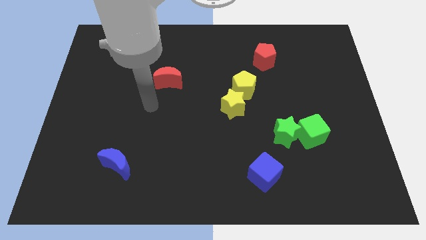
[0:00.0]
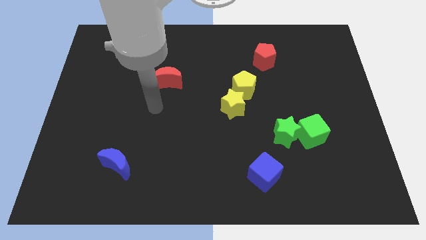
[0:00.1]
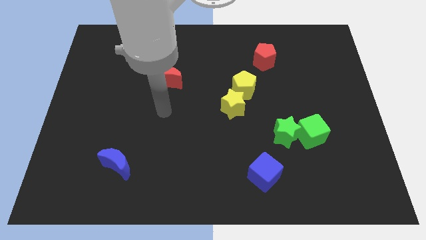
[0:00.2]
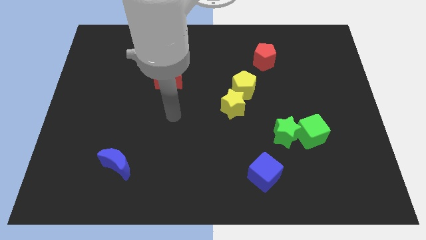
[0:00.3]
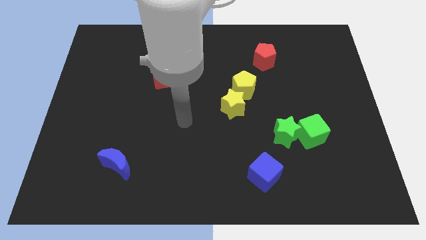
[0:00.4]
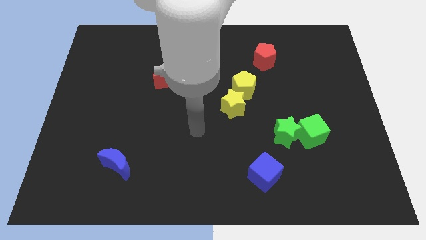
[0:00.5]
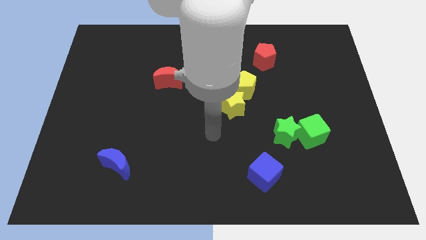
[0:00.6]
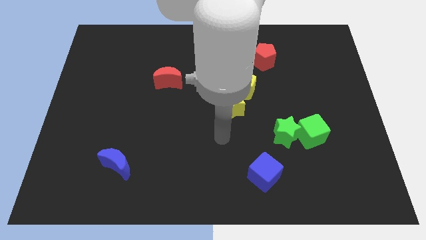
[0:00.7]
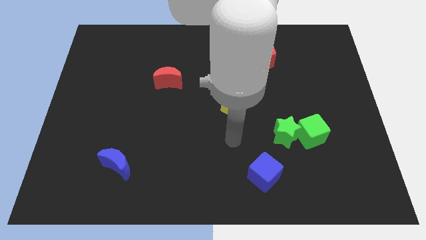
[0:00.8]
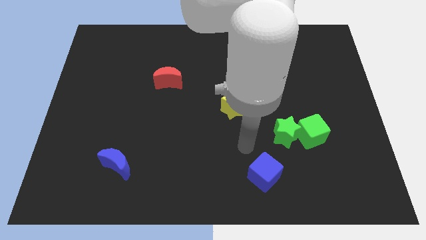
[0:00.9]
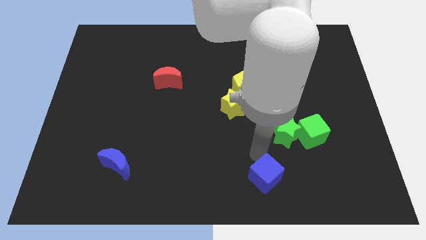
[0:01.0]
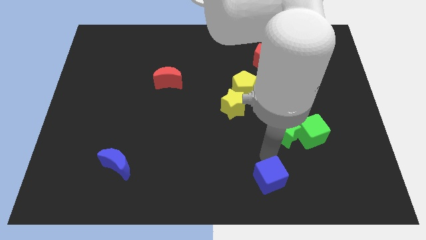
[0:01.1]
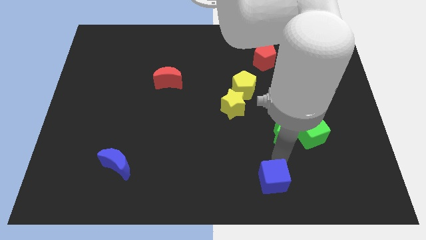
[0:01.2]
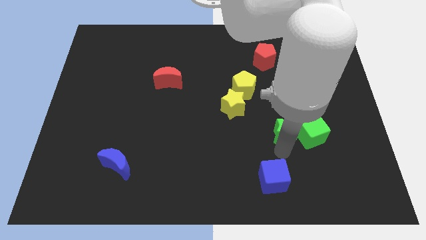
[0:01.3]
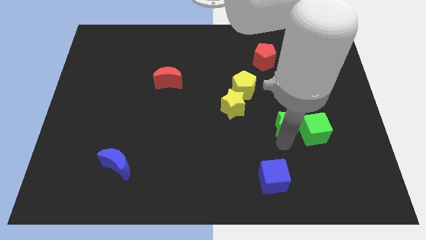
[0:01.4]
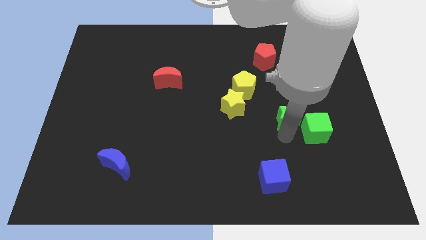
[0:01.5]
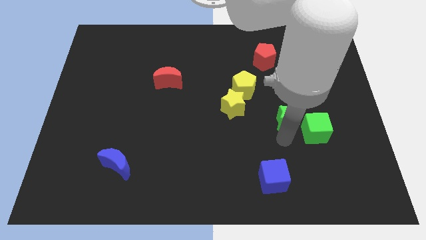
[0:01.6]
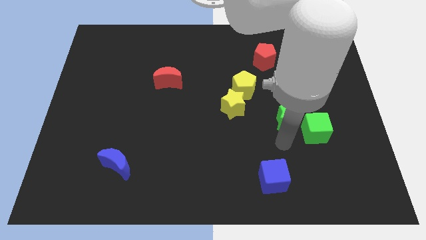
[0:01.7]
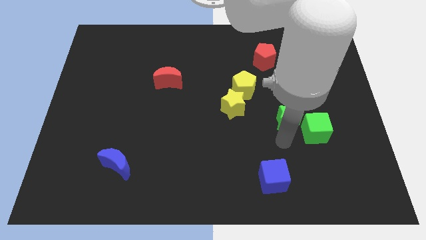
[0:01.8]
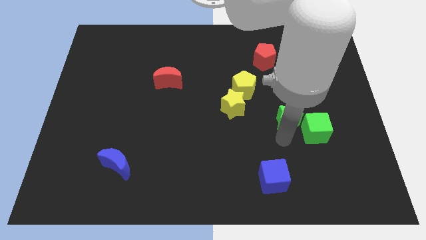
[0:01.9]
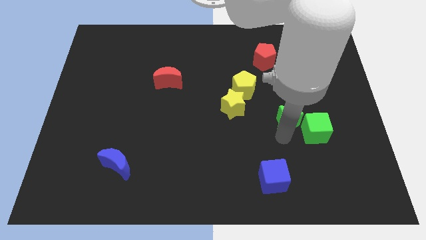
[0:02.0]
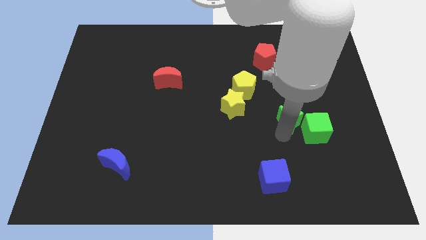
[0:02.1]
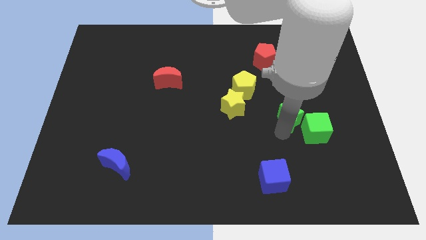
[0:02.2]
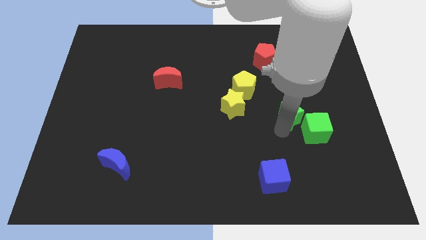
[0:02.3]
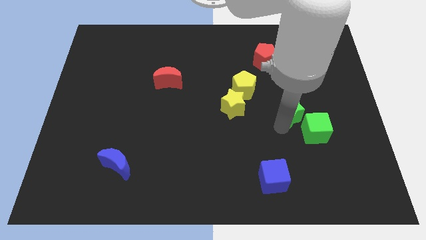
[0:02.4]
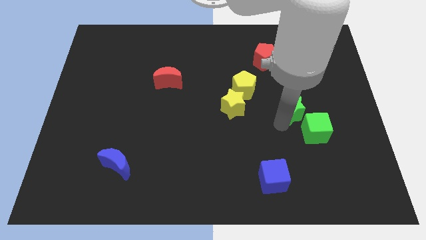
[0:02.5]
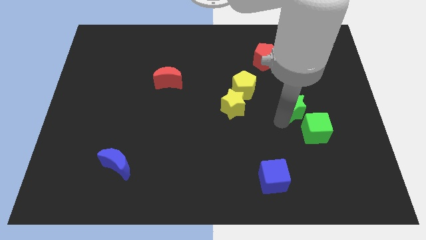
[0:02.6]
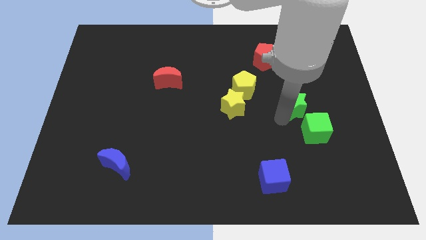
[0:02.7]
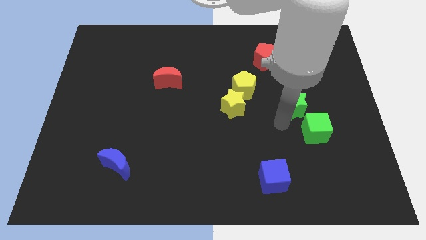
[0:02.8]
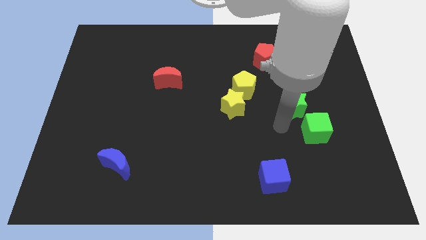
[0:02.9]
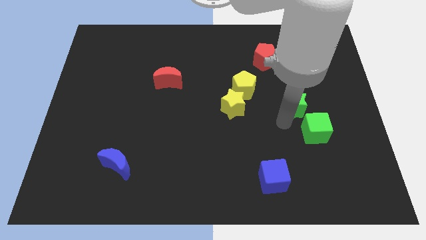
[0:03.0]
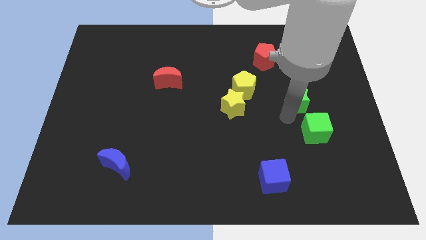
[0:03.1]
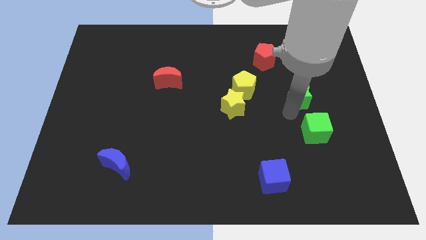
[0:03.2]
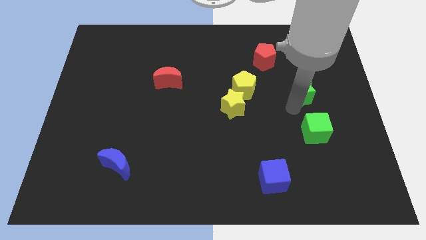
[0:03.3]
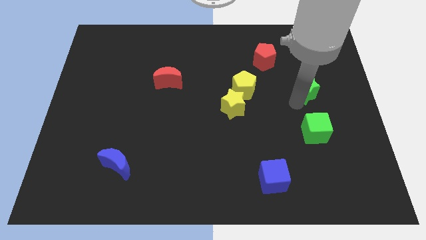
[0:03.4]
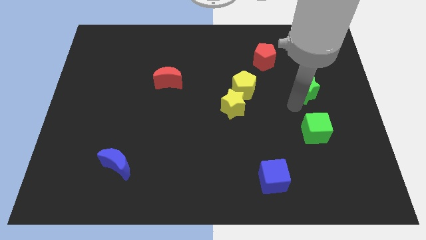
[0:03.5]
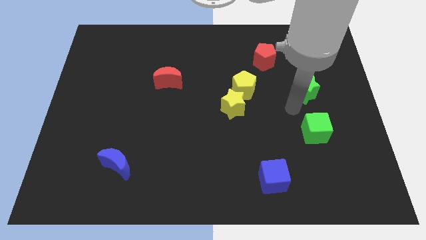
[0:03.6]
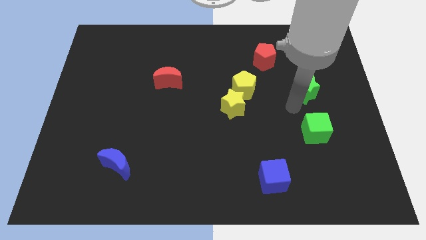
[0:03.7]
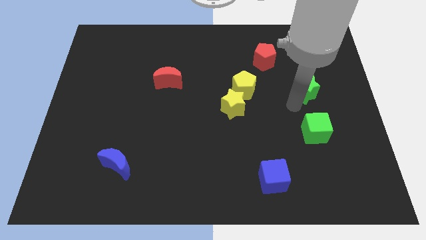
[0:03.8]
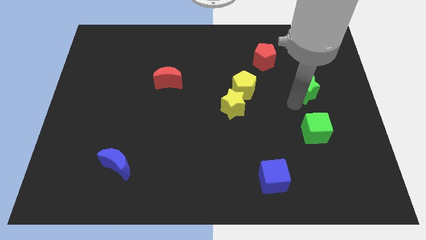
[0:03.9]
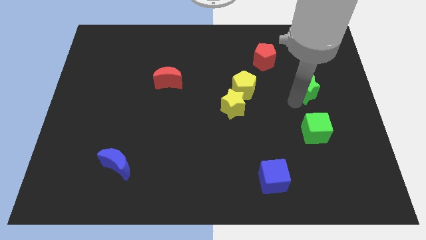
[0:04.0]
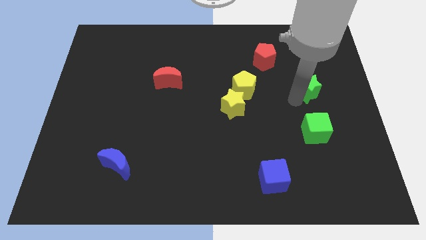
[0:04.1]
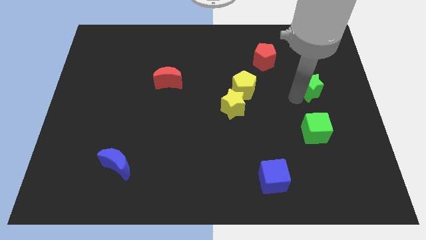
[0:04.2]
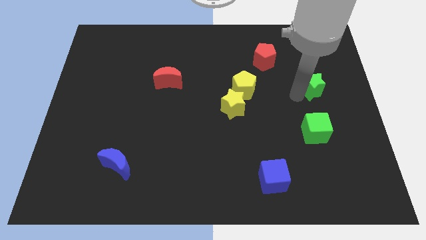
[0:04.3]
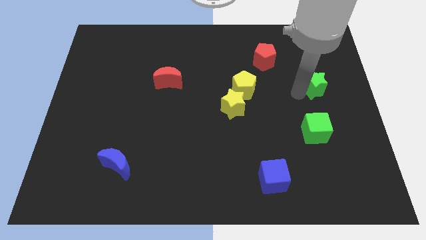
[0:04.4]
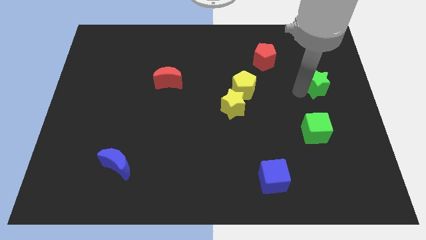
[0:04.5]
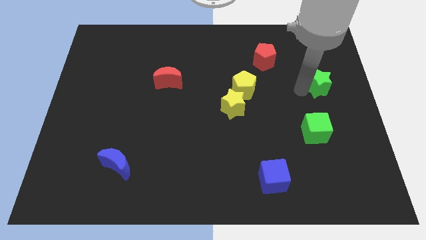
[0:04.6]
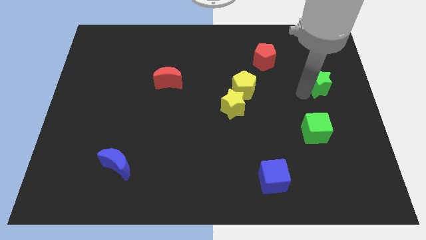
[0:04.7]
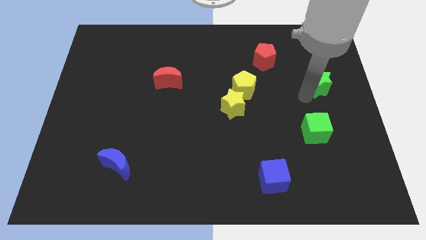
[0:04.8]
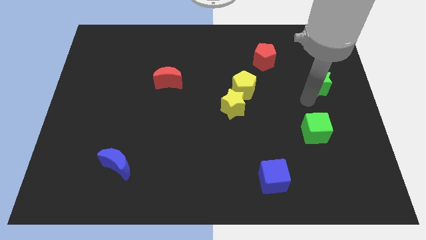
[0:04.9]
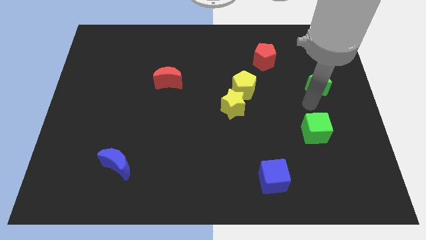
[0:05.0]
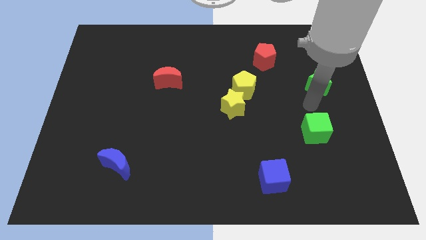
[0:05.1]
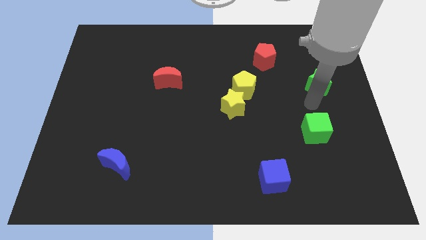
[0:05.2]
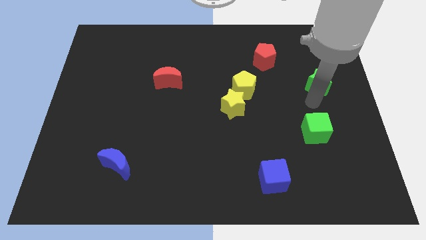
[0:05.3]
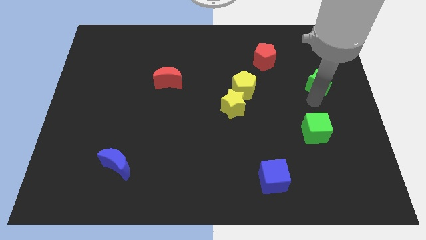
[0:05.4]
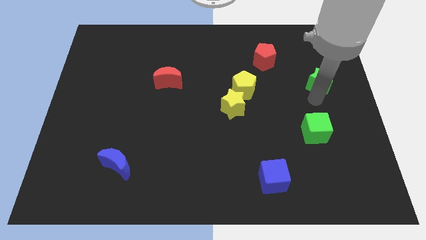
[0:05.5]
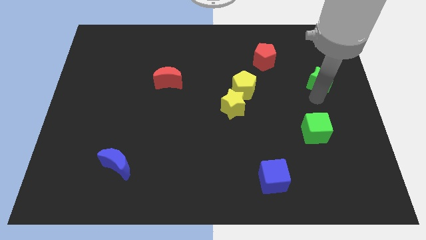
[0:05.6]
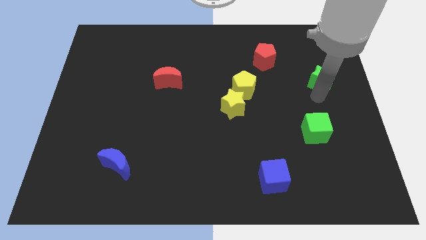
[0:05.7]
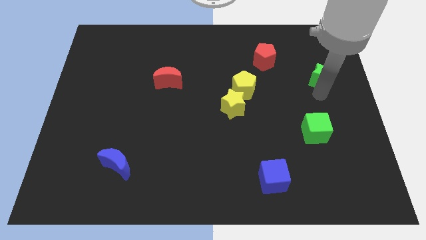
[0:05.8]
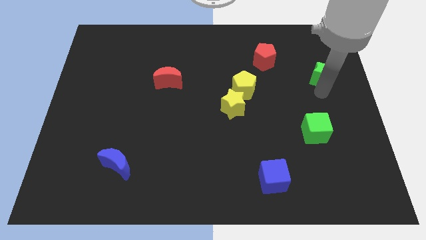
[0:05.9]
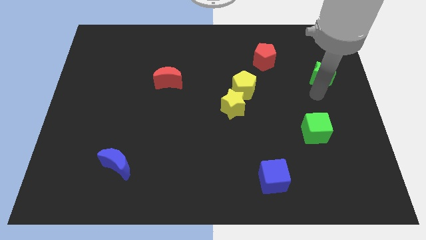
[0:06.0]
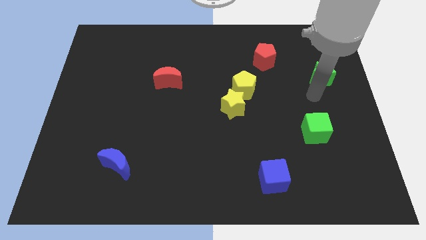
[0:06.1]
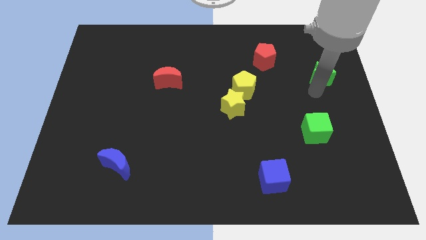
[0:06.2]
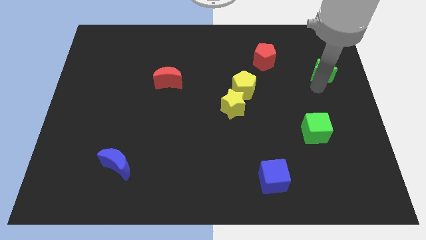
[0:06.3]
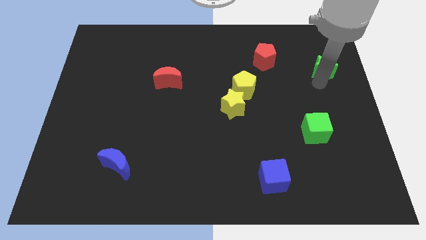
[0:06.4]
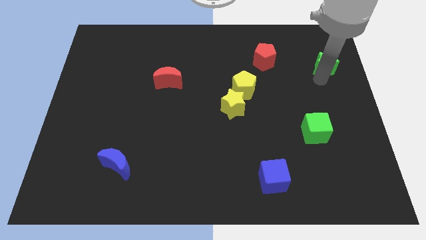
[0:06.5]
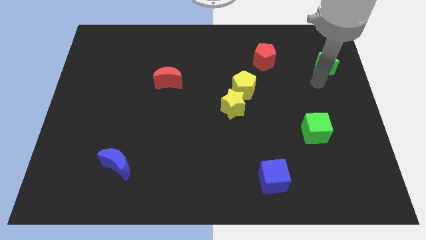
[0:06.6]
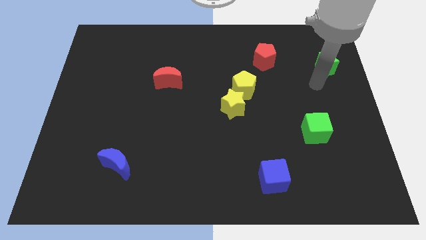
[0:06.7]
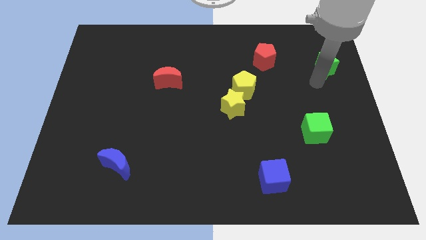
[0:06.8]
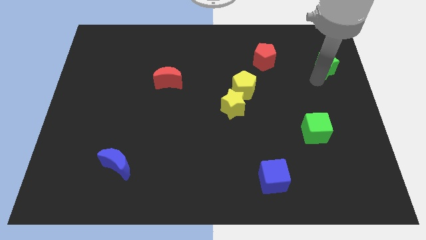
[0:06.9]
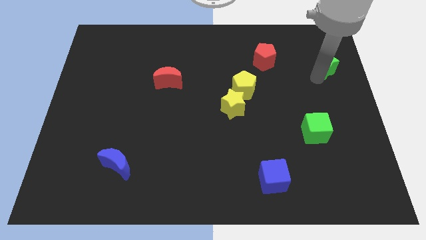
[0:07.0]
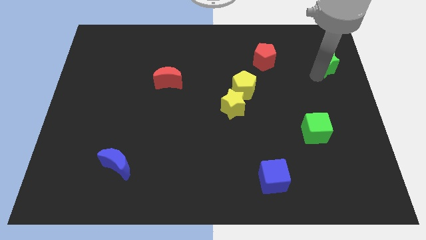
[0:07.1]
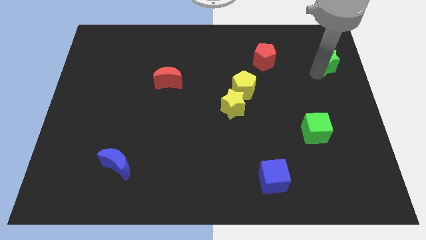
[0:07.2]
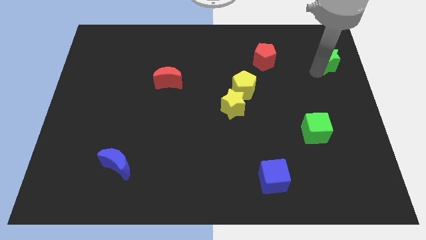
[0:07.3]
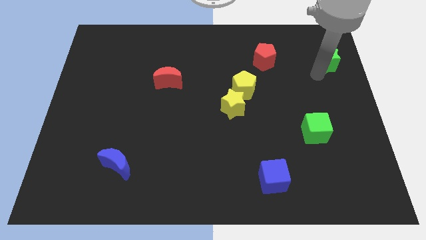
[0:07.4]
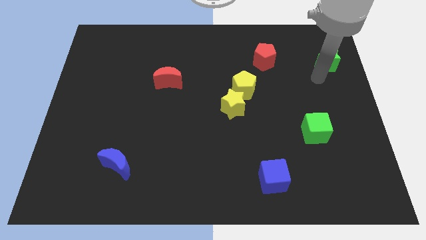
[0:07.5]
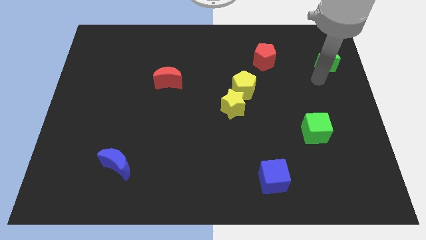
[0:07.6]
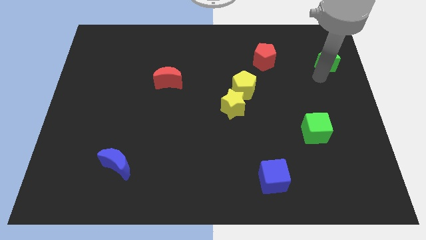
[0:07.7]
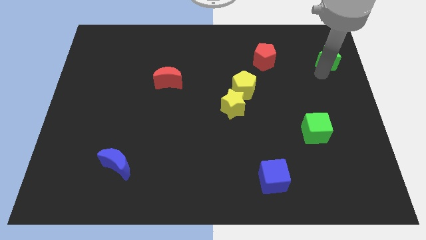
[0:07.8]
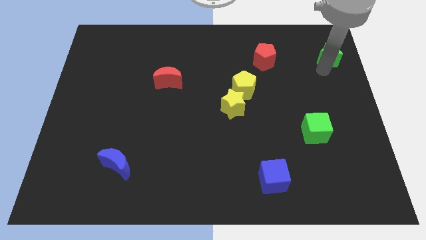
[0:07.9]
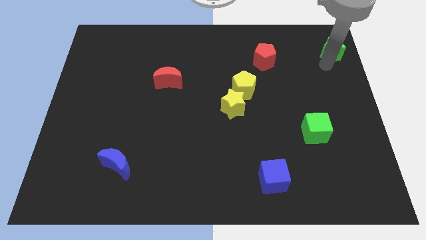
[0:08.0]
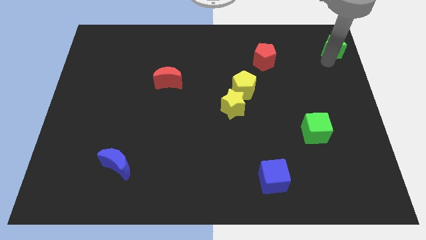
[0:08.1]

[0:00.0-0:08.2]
put the green star to the upper right corner
